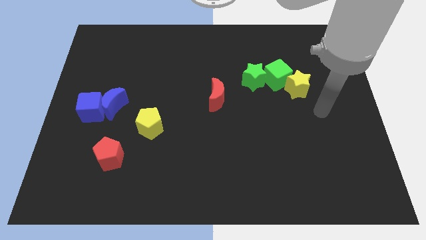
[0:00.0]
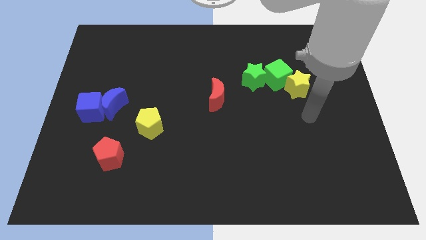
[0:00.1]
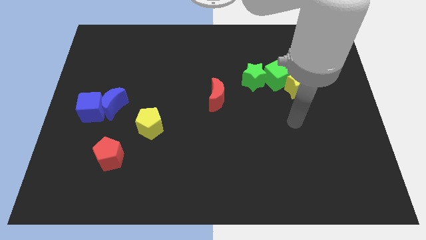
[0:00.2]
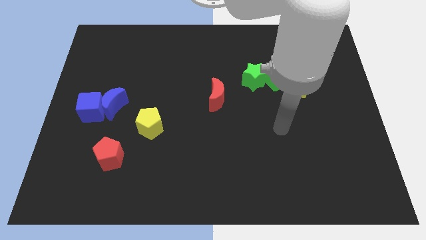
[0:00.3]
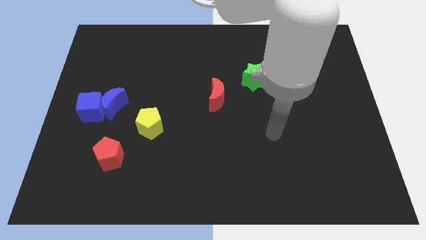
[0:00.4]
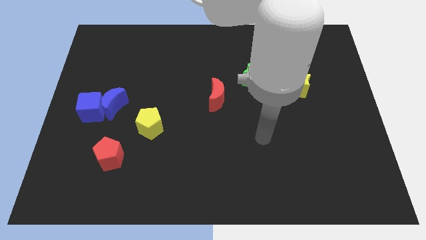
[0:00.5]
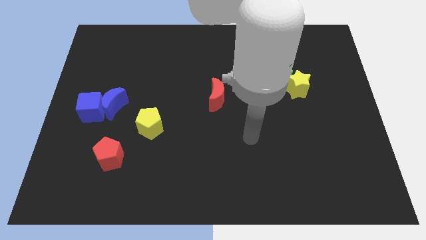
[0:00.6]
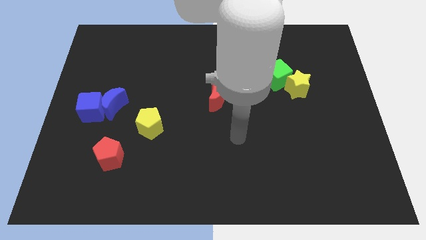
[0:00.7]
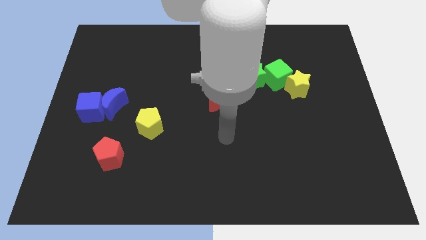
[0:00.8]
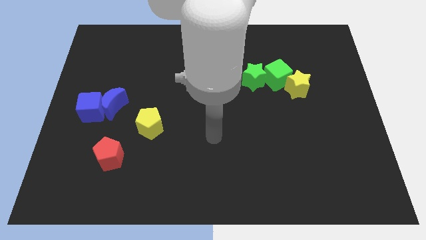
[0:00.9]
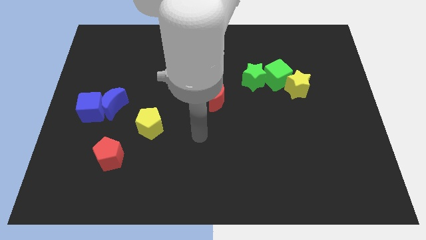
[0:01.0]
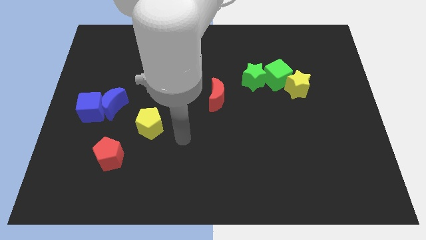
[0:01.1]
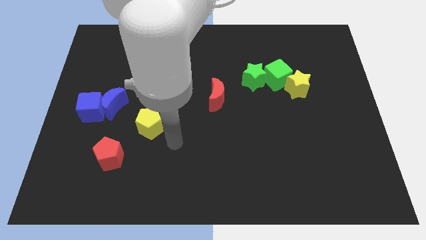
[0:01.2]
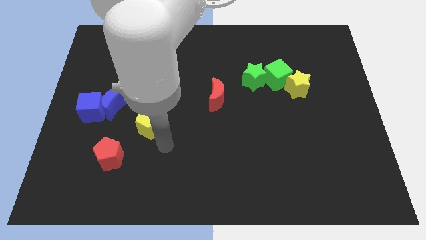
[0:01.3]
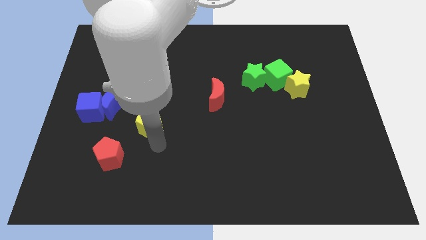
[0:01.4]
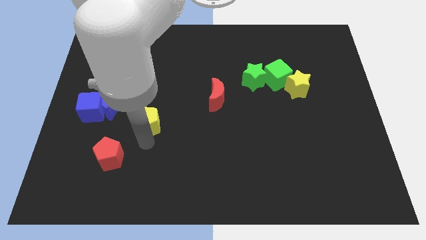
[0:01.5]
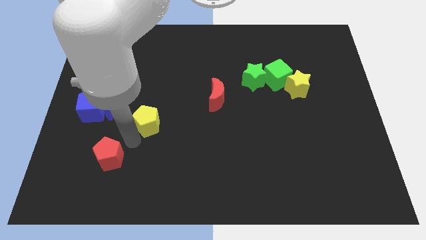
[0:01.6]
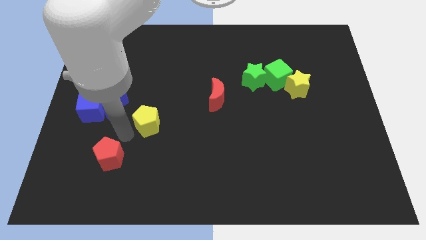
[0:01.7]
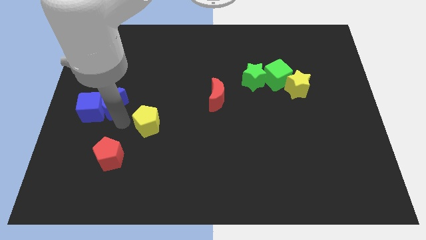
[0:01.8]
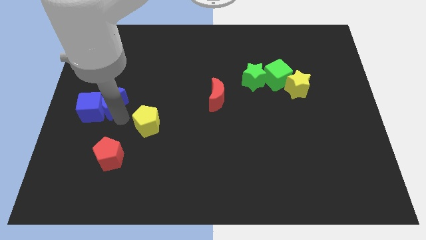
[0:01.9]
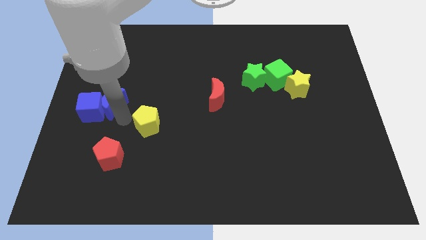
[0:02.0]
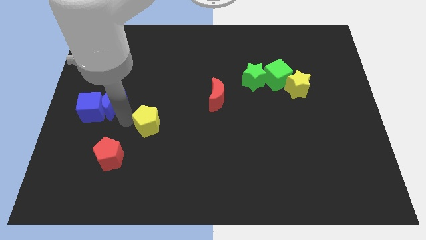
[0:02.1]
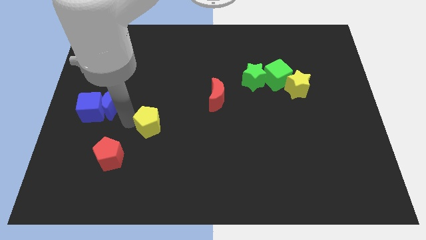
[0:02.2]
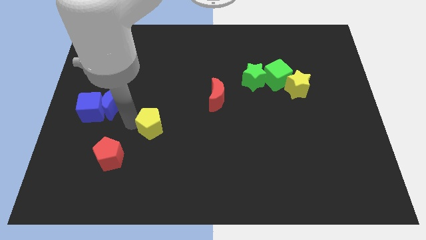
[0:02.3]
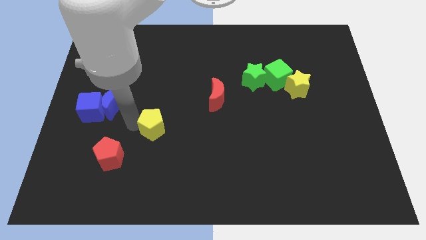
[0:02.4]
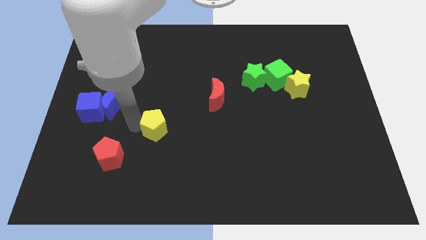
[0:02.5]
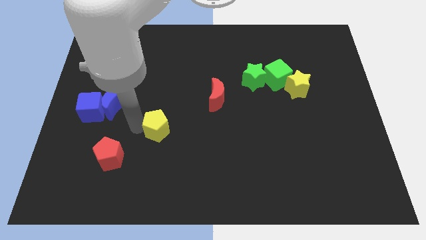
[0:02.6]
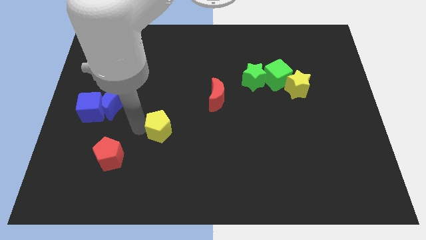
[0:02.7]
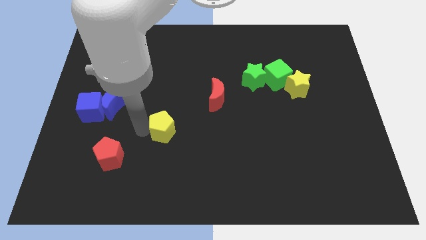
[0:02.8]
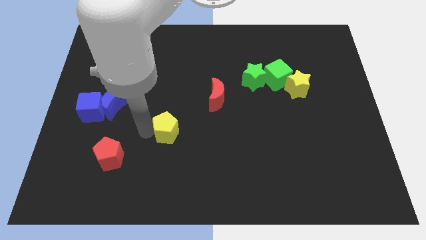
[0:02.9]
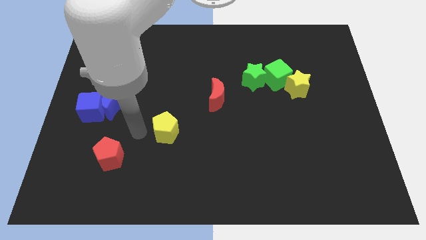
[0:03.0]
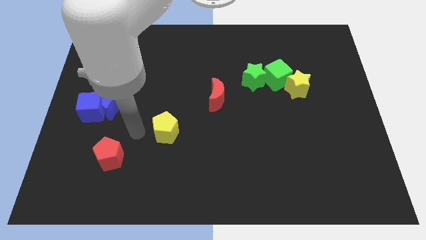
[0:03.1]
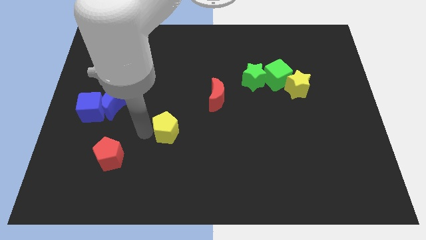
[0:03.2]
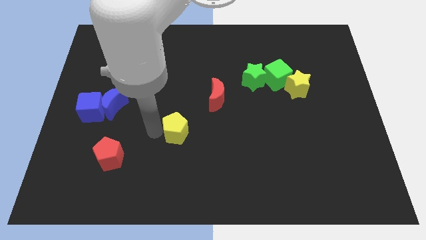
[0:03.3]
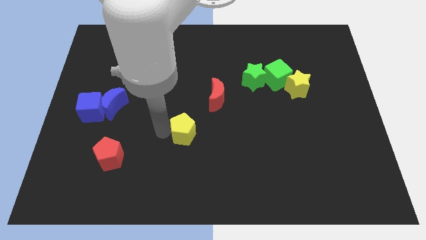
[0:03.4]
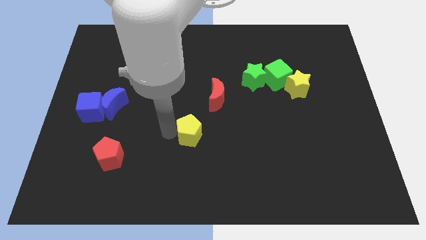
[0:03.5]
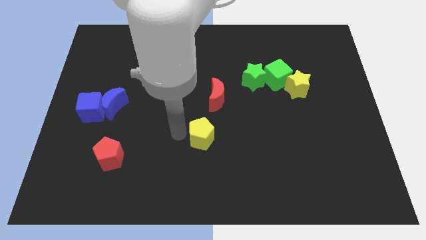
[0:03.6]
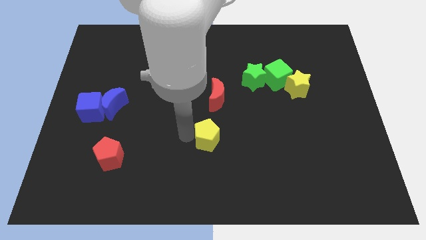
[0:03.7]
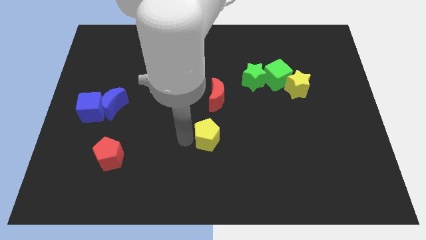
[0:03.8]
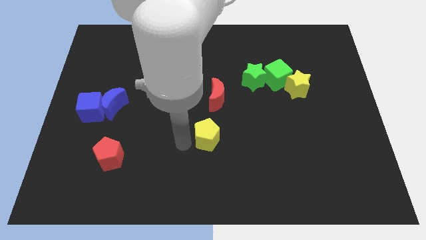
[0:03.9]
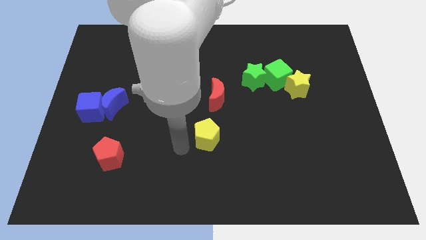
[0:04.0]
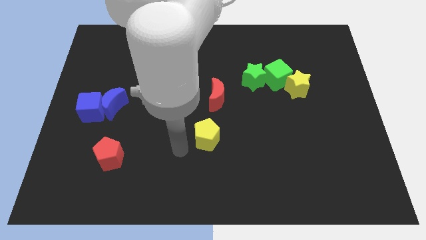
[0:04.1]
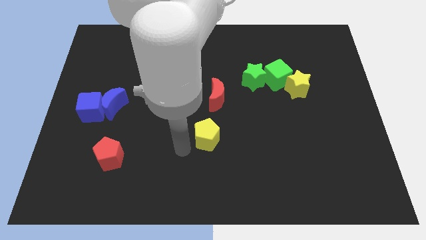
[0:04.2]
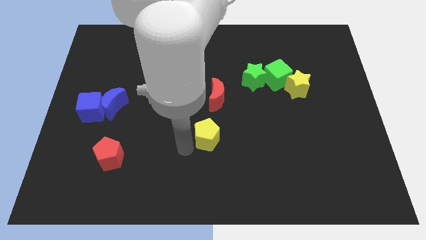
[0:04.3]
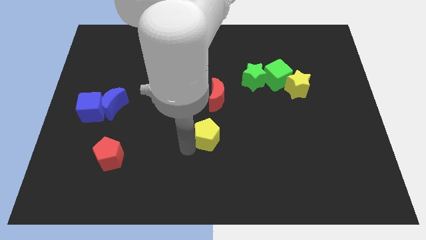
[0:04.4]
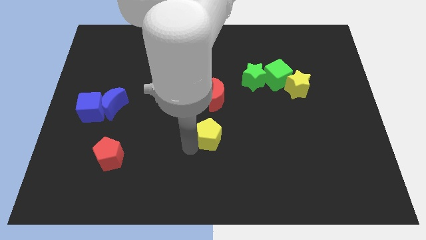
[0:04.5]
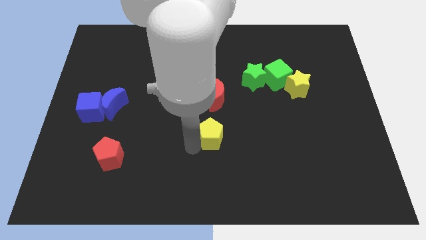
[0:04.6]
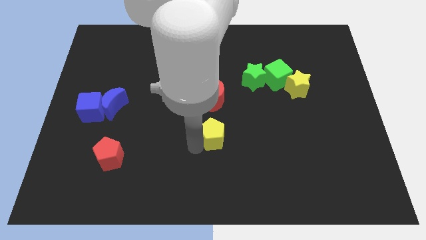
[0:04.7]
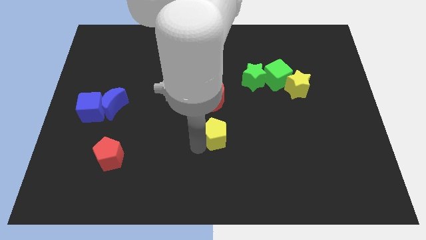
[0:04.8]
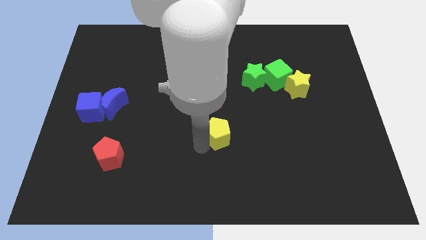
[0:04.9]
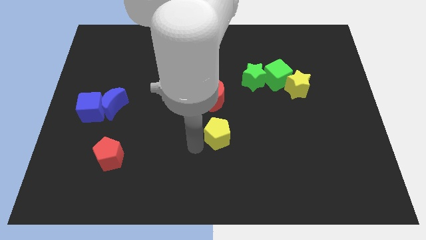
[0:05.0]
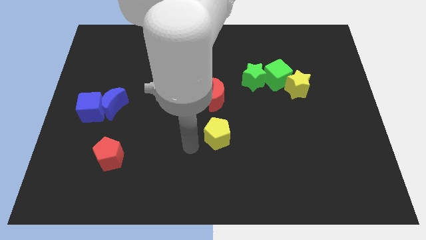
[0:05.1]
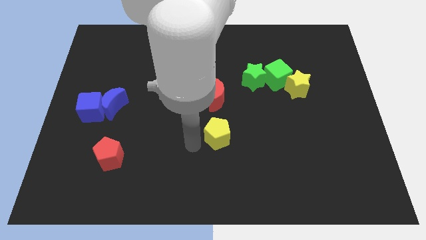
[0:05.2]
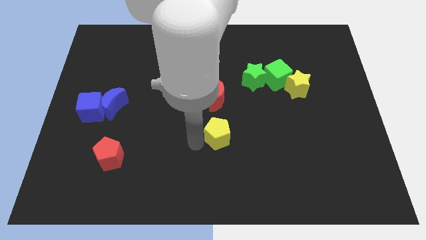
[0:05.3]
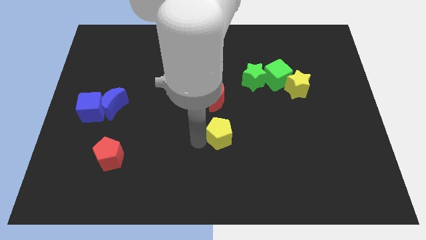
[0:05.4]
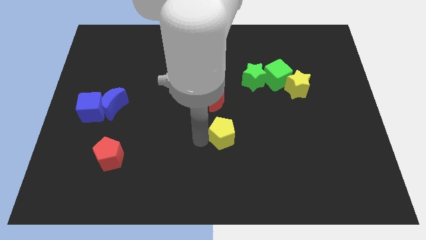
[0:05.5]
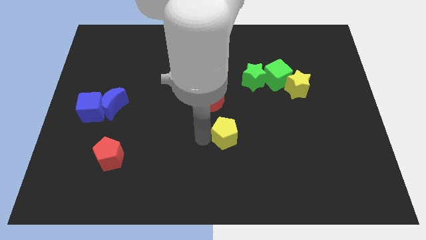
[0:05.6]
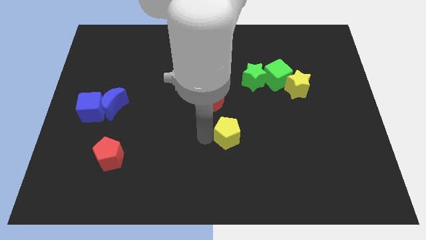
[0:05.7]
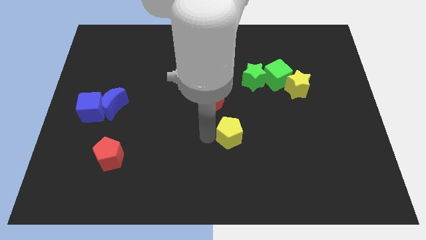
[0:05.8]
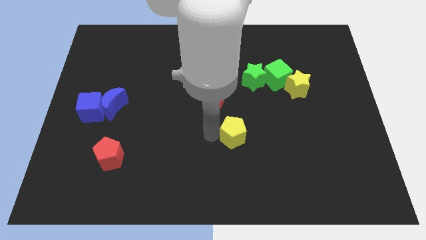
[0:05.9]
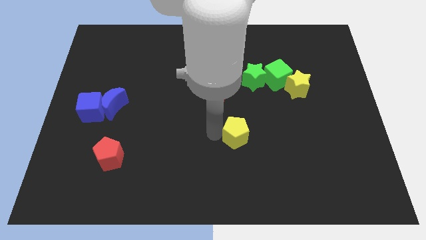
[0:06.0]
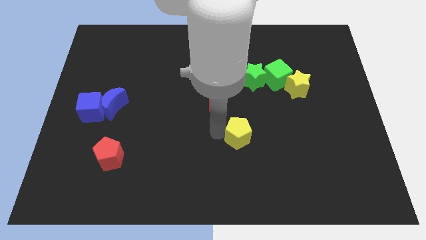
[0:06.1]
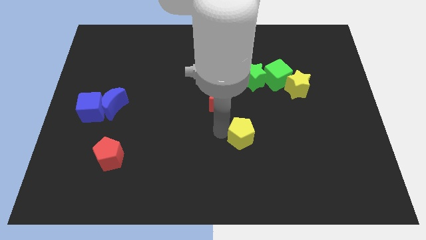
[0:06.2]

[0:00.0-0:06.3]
push the yellow pentagon to the right

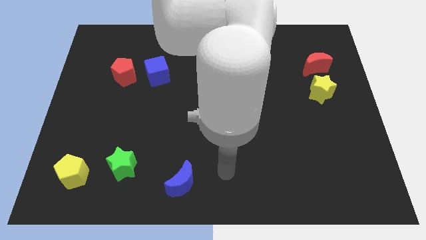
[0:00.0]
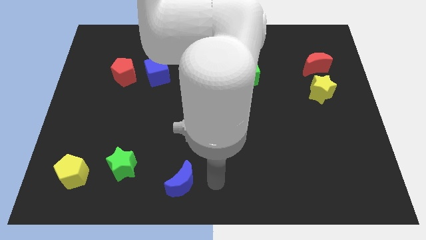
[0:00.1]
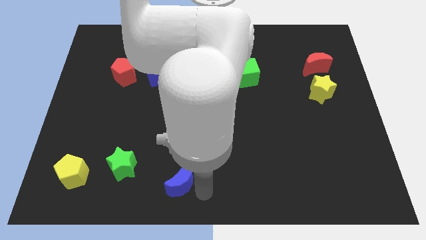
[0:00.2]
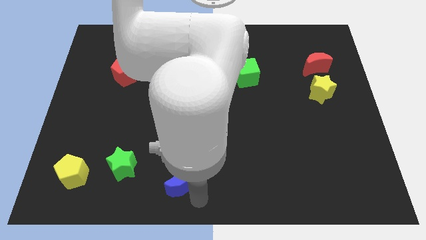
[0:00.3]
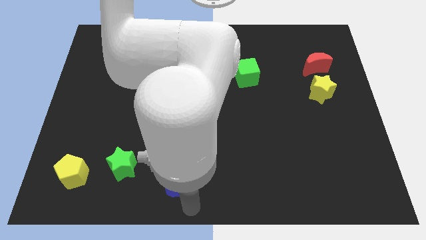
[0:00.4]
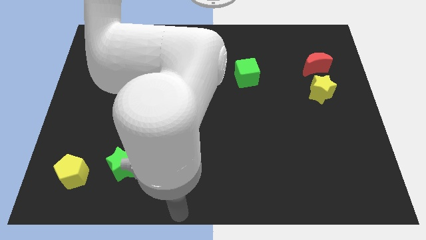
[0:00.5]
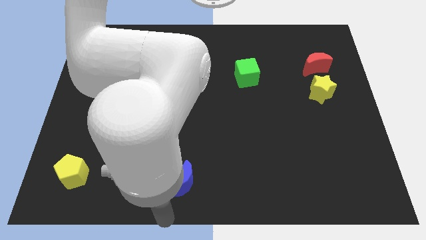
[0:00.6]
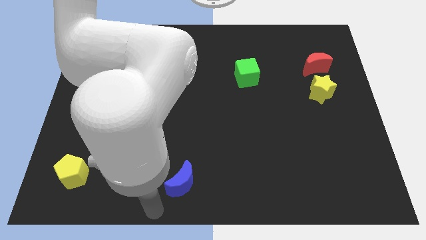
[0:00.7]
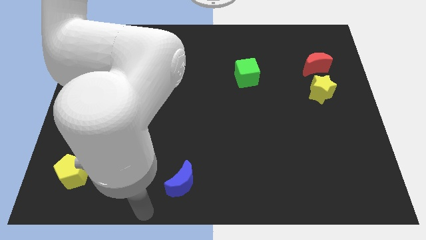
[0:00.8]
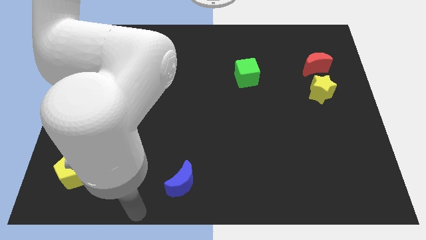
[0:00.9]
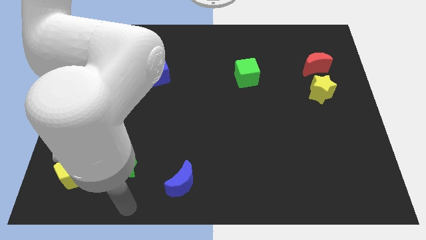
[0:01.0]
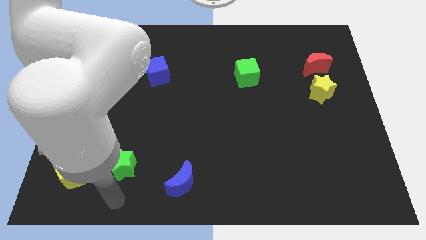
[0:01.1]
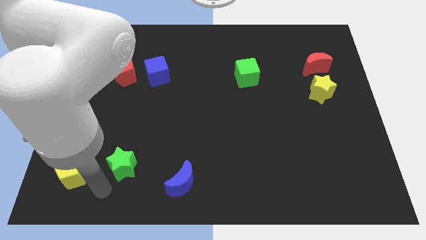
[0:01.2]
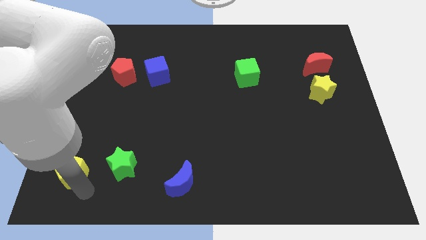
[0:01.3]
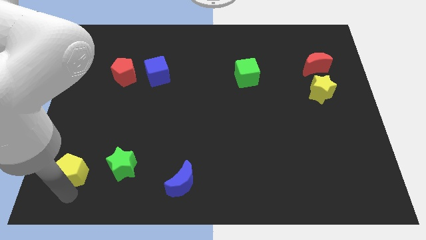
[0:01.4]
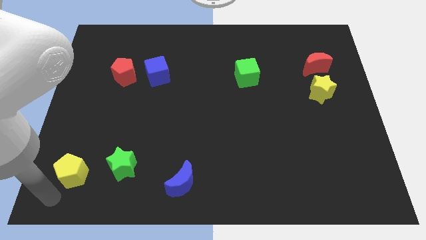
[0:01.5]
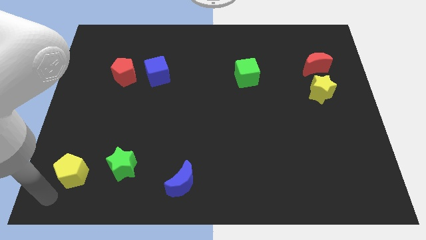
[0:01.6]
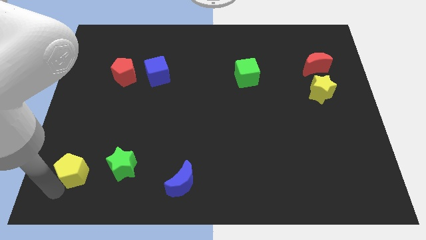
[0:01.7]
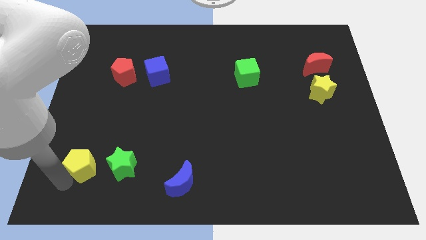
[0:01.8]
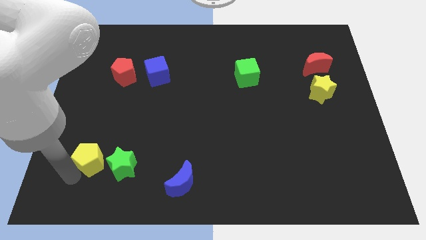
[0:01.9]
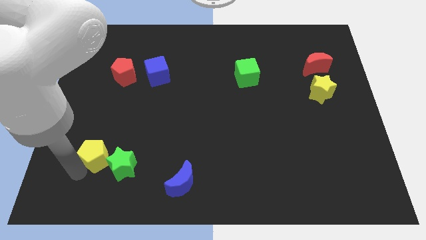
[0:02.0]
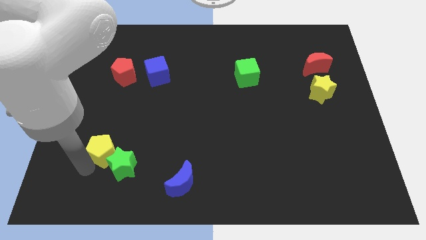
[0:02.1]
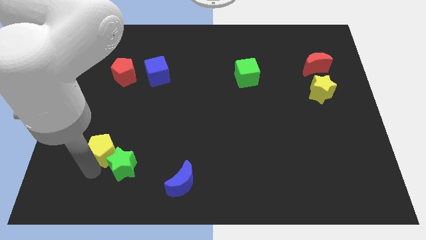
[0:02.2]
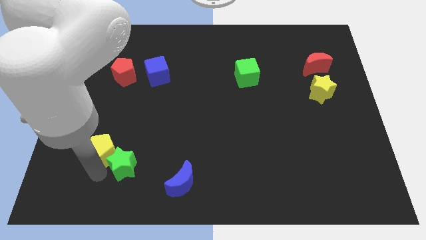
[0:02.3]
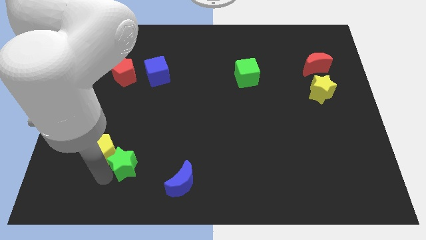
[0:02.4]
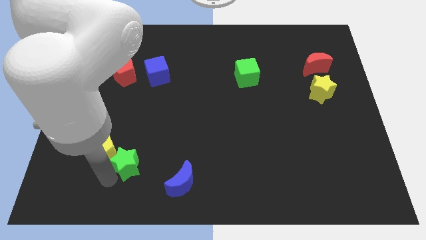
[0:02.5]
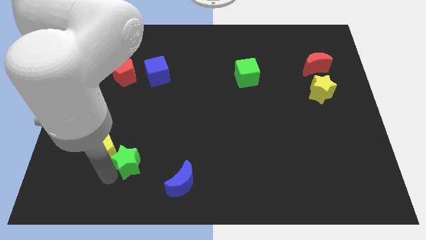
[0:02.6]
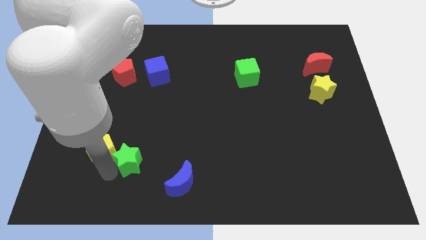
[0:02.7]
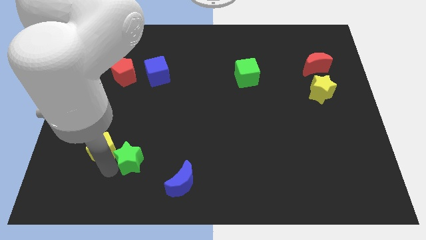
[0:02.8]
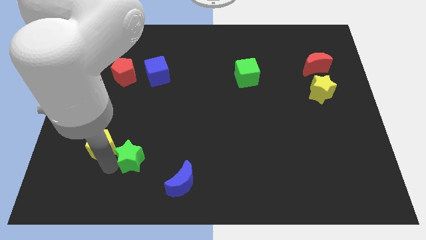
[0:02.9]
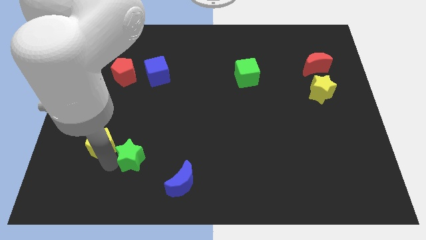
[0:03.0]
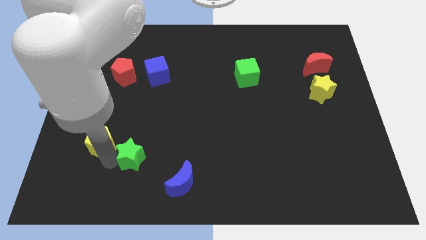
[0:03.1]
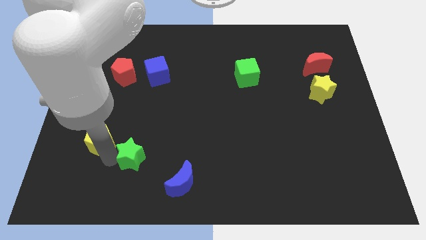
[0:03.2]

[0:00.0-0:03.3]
move the yellow pentagon upwards somewhat
